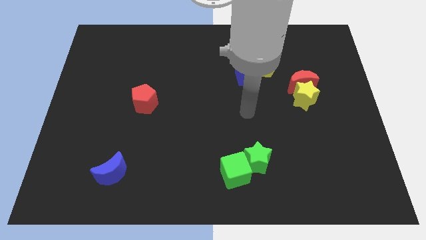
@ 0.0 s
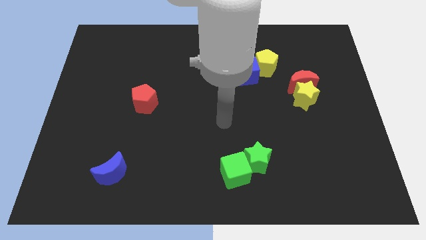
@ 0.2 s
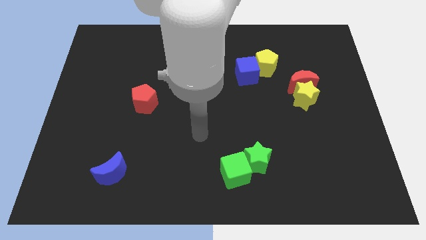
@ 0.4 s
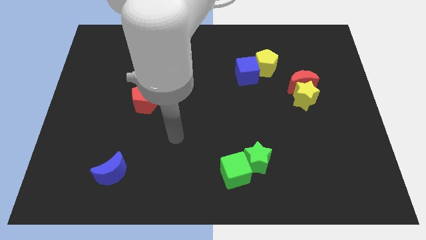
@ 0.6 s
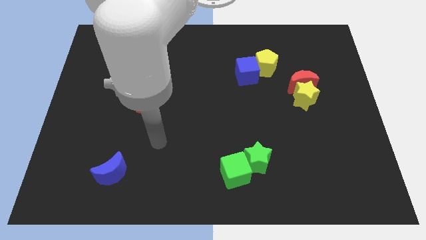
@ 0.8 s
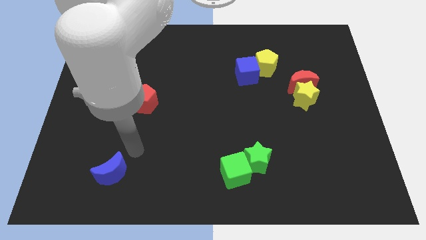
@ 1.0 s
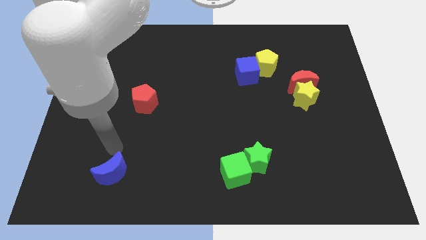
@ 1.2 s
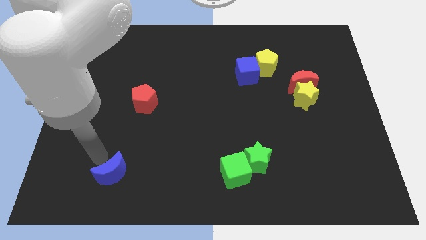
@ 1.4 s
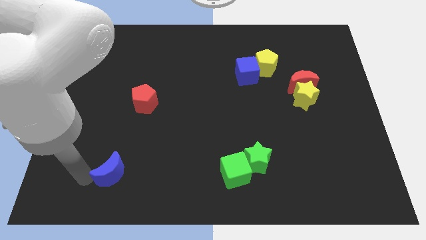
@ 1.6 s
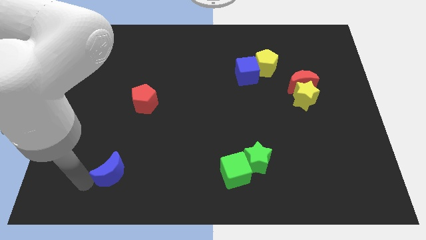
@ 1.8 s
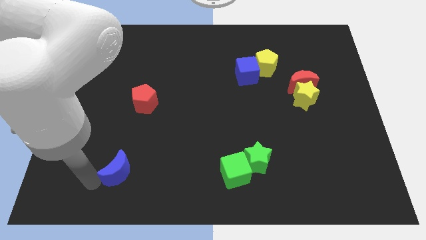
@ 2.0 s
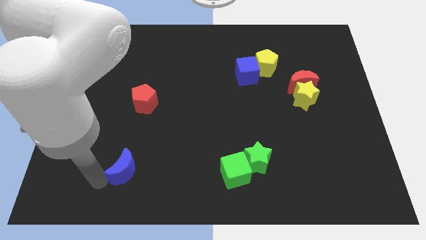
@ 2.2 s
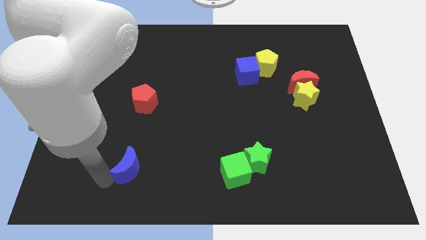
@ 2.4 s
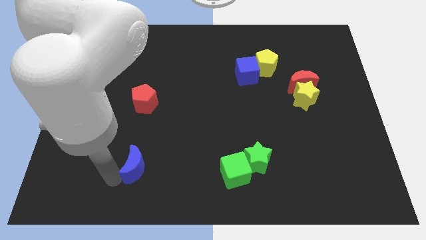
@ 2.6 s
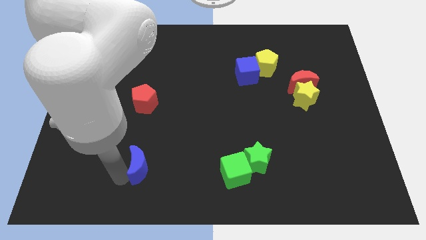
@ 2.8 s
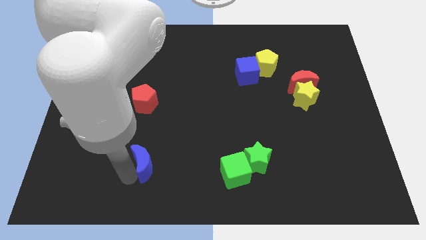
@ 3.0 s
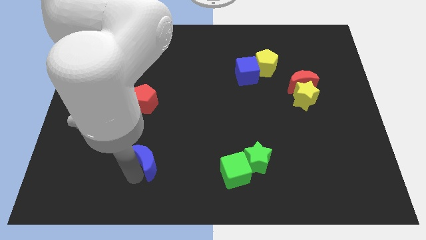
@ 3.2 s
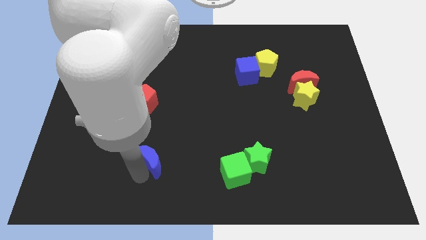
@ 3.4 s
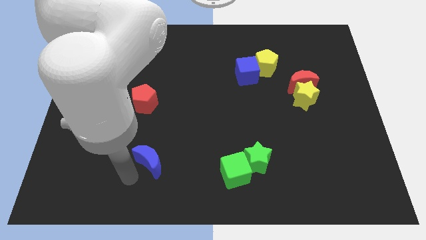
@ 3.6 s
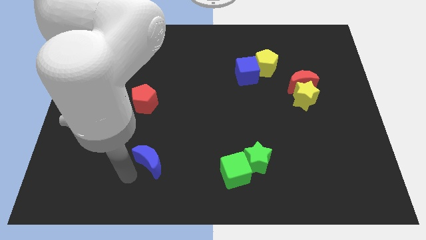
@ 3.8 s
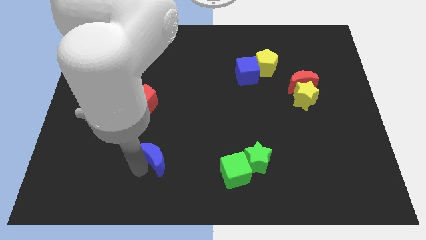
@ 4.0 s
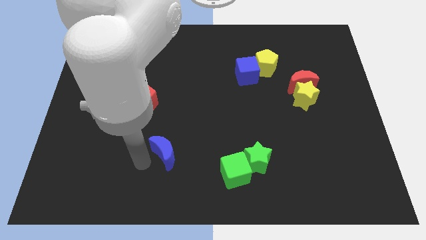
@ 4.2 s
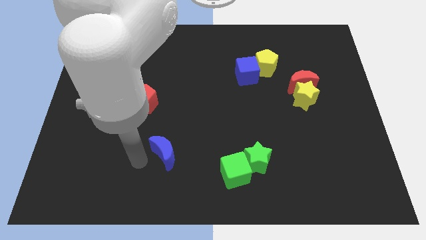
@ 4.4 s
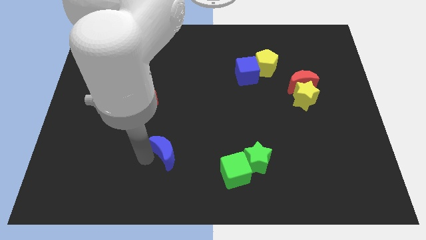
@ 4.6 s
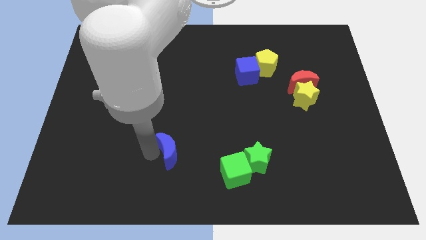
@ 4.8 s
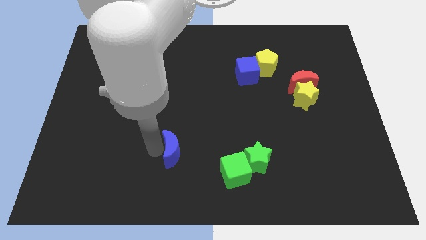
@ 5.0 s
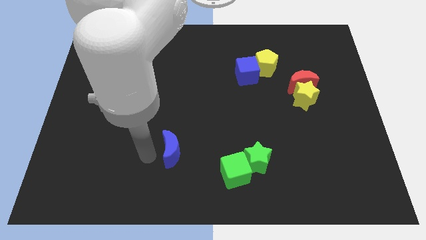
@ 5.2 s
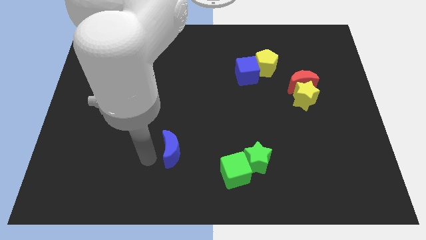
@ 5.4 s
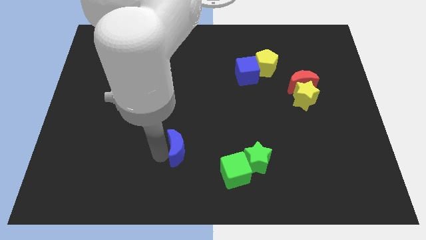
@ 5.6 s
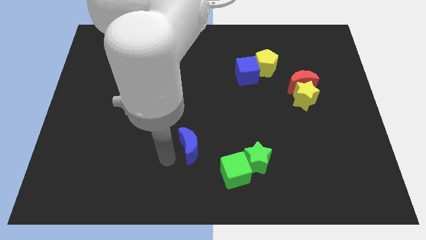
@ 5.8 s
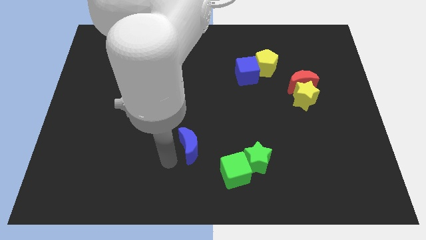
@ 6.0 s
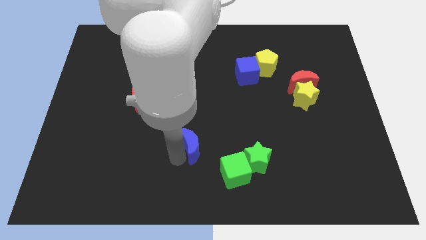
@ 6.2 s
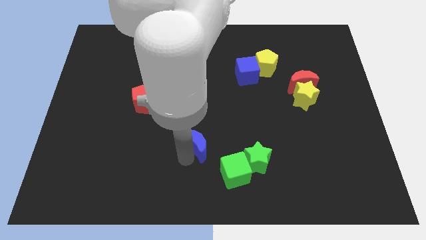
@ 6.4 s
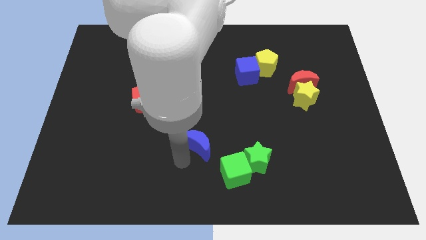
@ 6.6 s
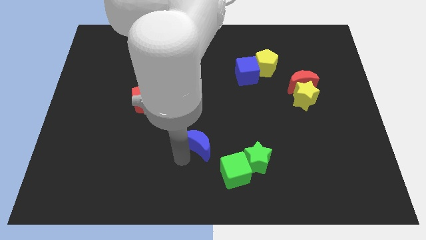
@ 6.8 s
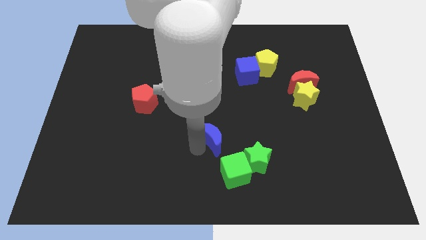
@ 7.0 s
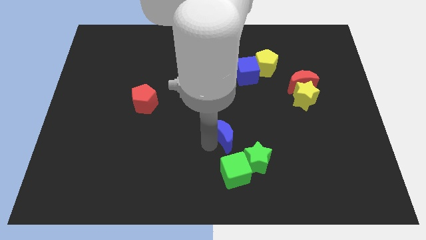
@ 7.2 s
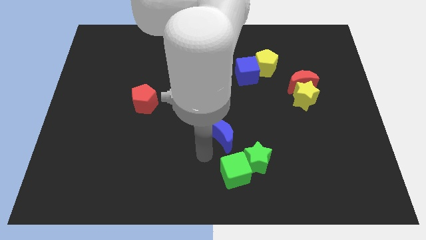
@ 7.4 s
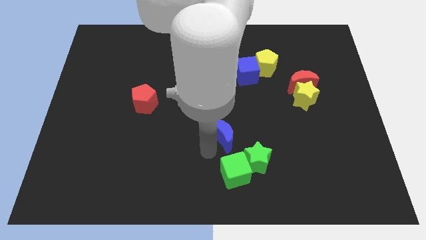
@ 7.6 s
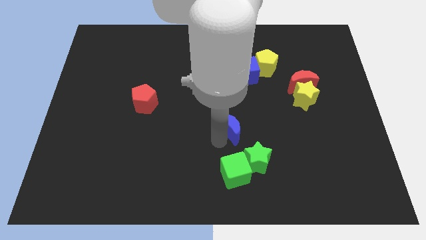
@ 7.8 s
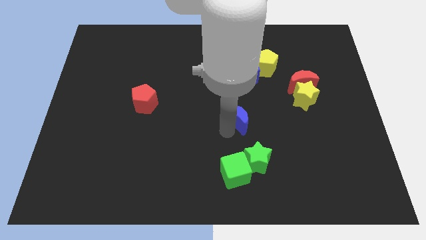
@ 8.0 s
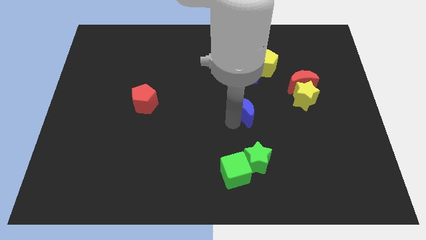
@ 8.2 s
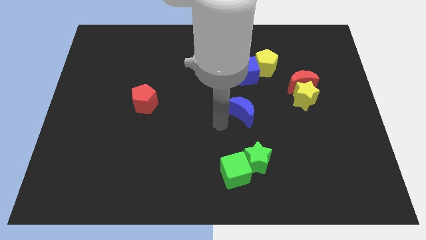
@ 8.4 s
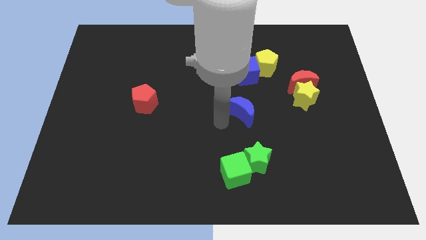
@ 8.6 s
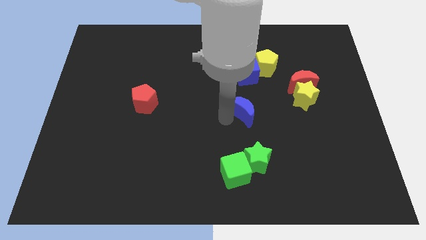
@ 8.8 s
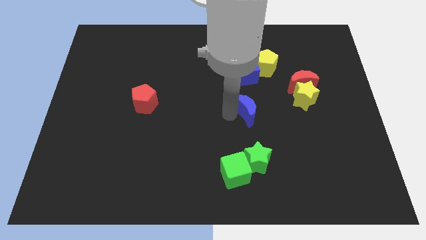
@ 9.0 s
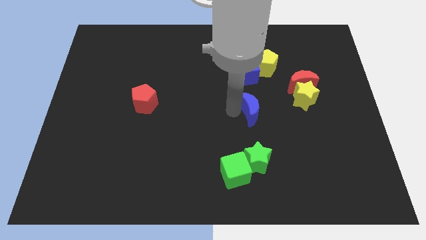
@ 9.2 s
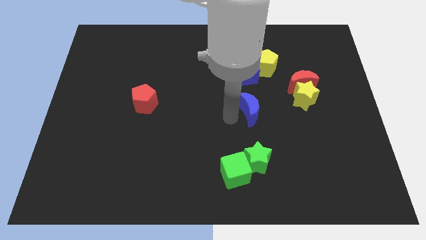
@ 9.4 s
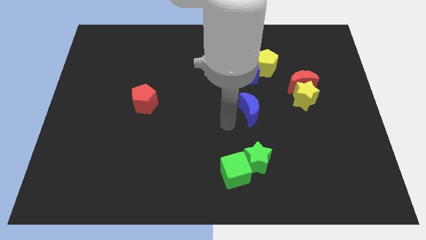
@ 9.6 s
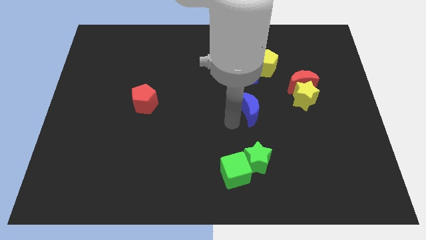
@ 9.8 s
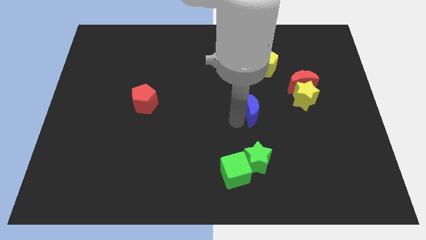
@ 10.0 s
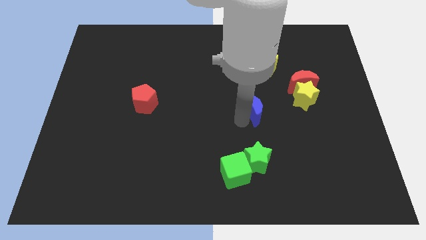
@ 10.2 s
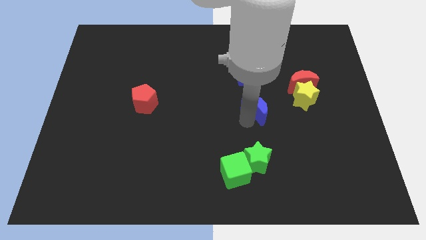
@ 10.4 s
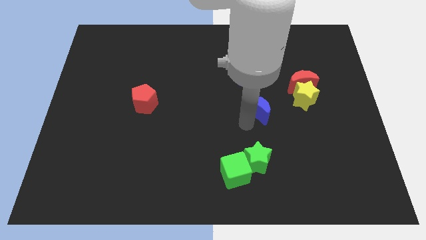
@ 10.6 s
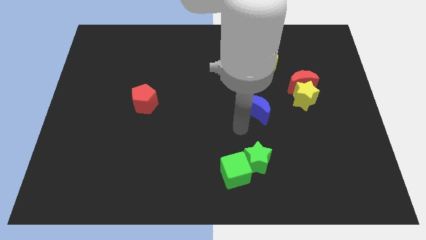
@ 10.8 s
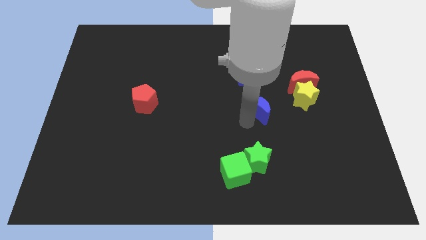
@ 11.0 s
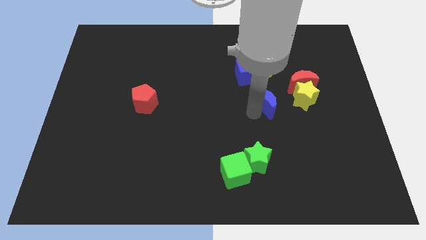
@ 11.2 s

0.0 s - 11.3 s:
push the blue moon to the bottom left side of the red moon

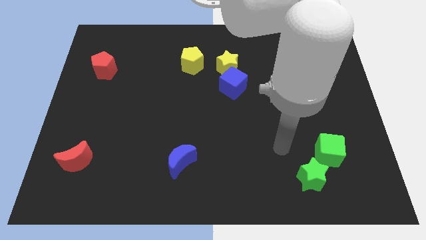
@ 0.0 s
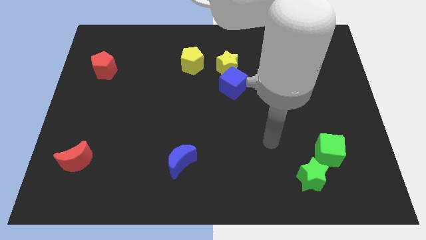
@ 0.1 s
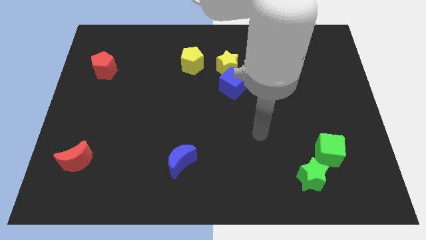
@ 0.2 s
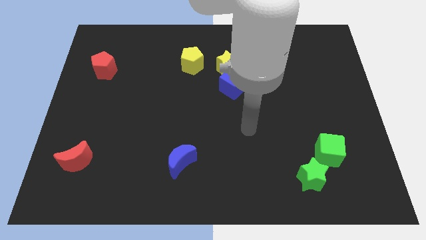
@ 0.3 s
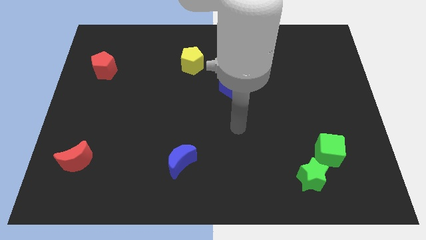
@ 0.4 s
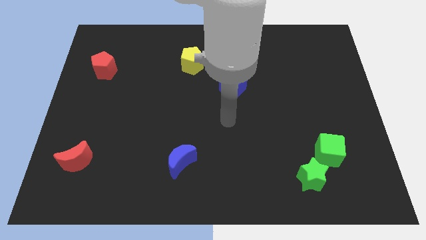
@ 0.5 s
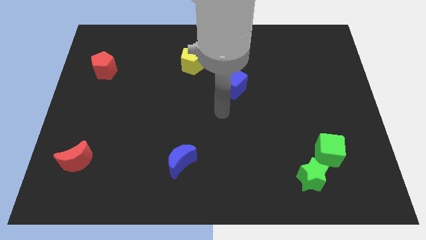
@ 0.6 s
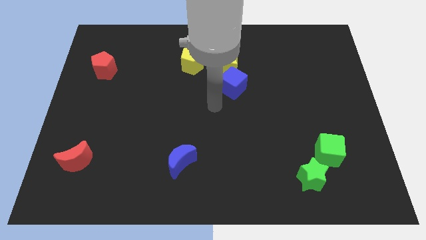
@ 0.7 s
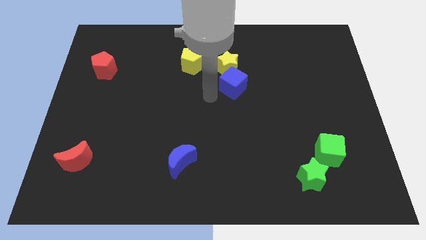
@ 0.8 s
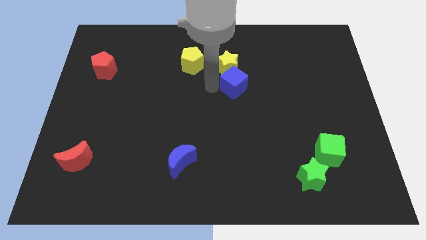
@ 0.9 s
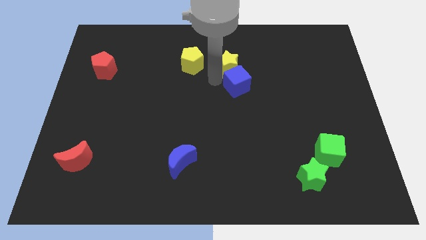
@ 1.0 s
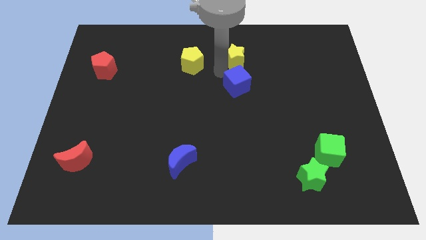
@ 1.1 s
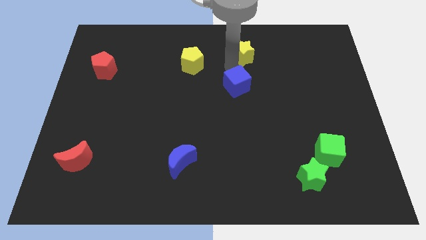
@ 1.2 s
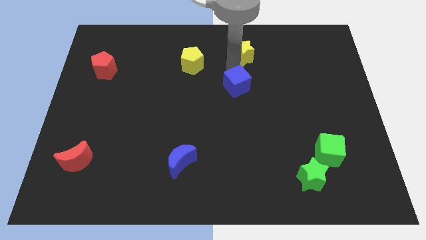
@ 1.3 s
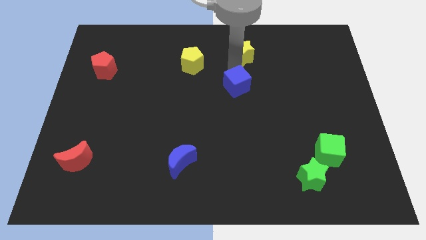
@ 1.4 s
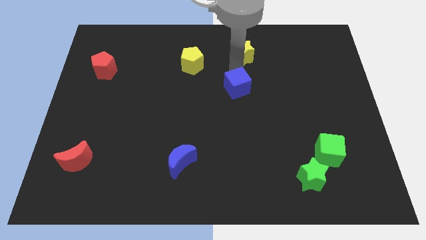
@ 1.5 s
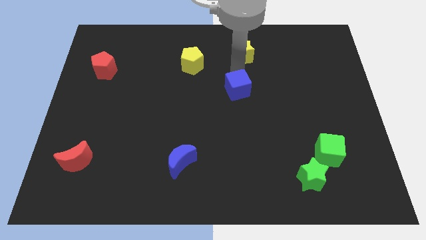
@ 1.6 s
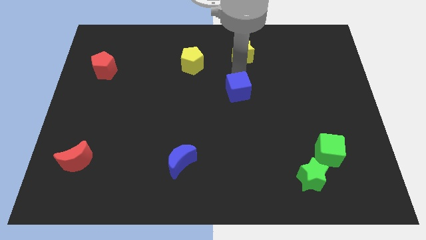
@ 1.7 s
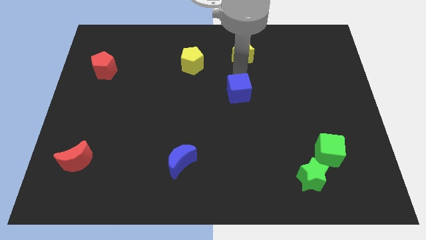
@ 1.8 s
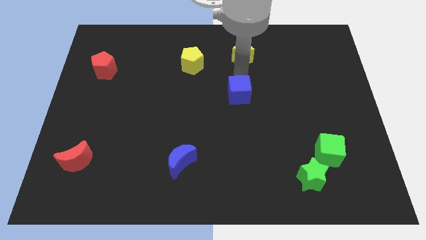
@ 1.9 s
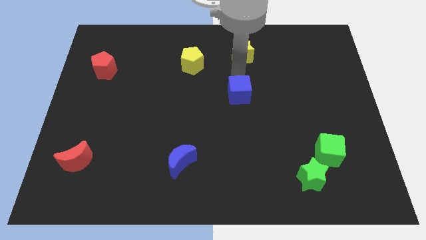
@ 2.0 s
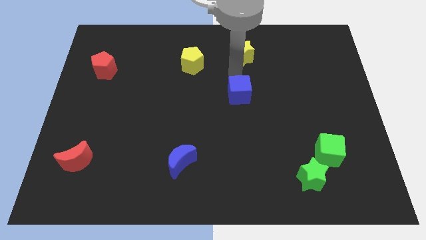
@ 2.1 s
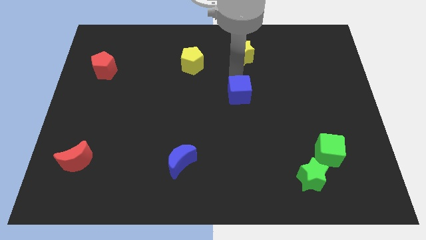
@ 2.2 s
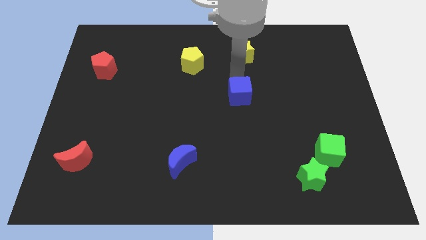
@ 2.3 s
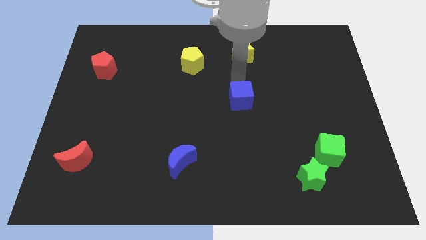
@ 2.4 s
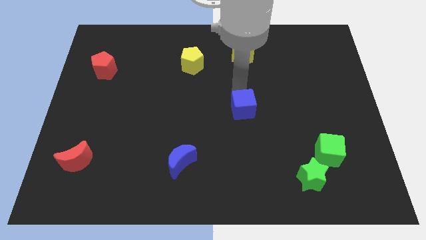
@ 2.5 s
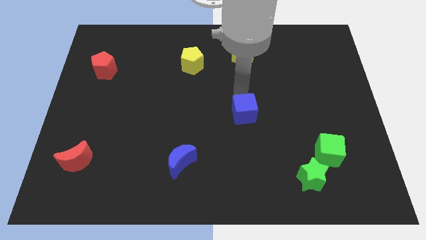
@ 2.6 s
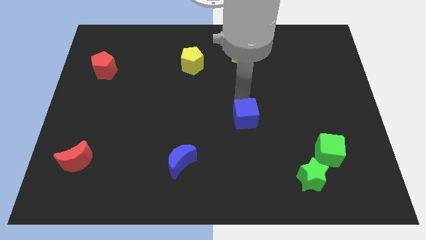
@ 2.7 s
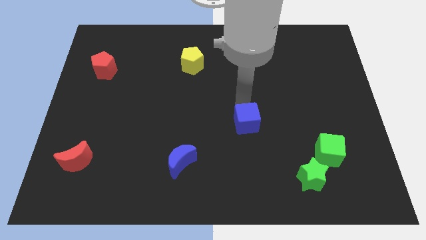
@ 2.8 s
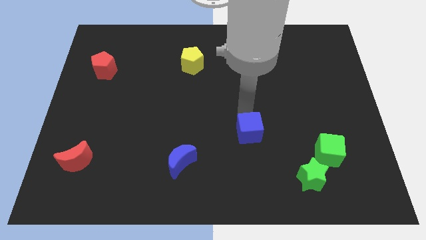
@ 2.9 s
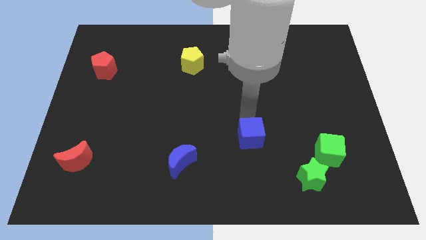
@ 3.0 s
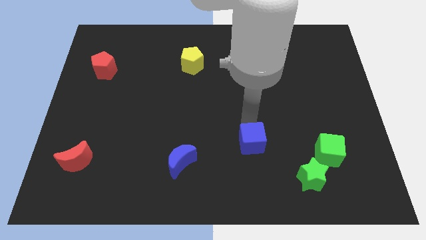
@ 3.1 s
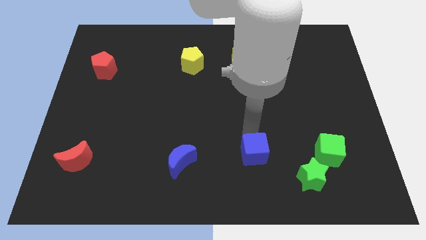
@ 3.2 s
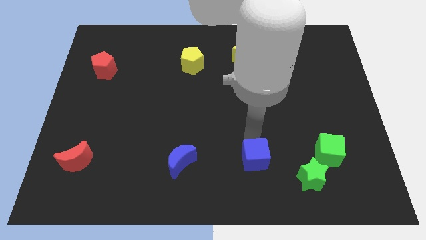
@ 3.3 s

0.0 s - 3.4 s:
put the blue cube to the left of the green star
